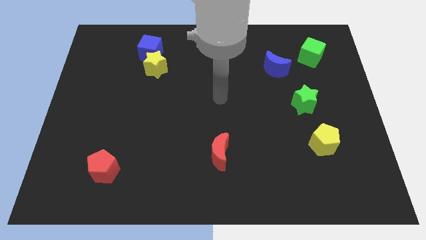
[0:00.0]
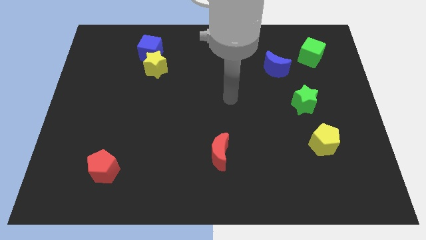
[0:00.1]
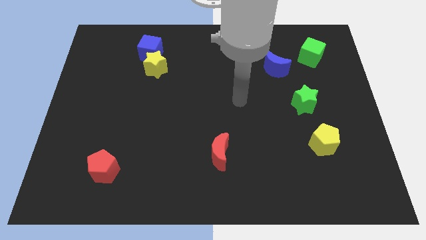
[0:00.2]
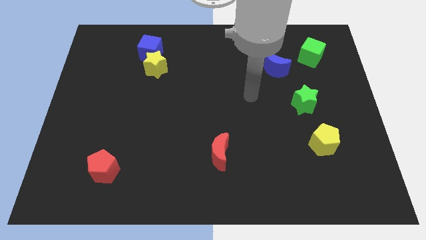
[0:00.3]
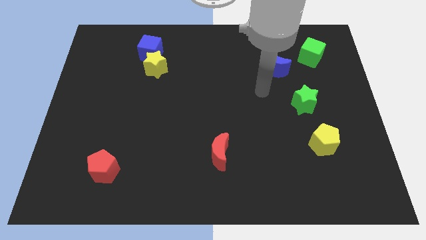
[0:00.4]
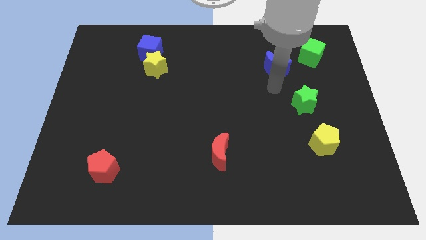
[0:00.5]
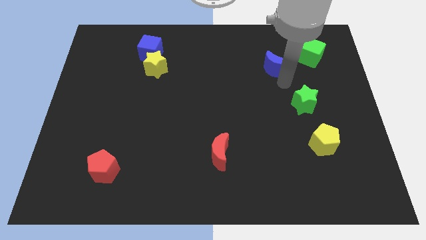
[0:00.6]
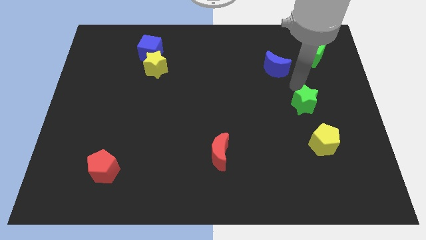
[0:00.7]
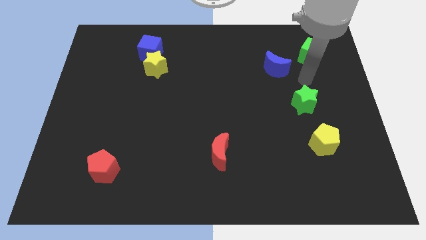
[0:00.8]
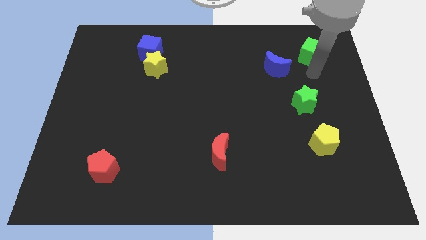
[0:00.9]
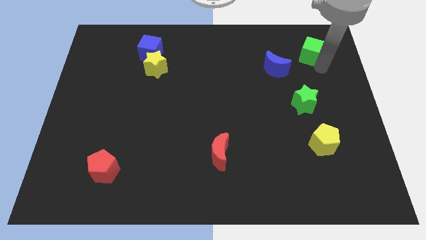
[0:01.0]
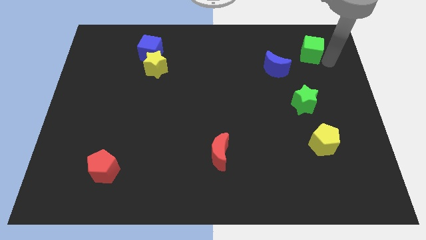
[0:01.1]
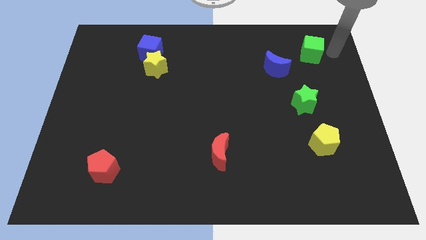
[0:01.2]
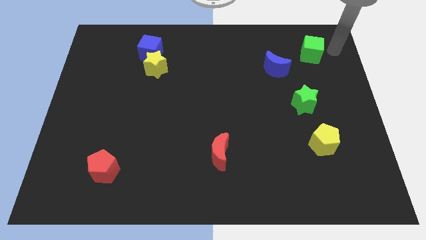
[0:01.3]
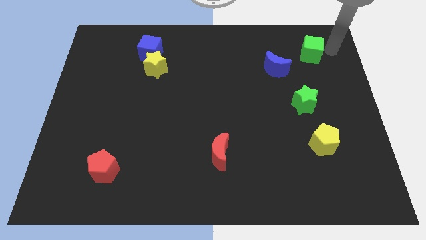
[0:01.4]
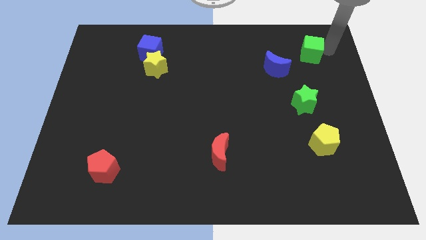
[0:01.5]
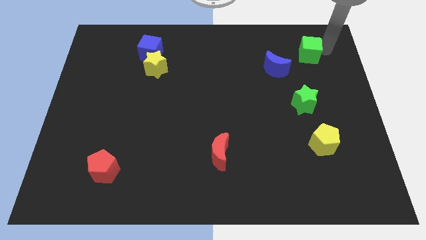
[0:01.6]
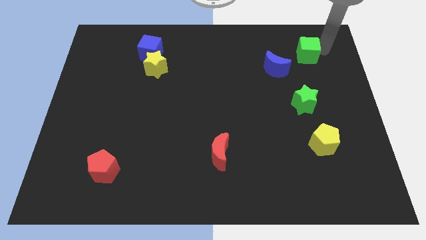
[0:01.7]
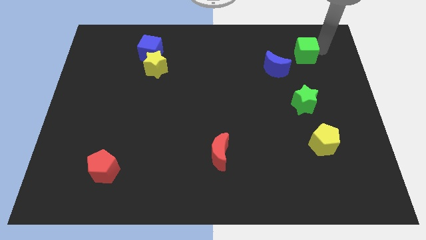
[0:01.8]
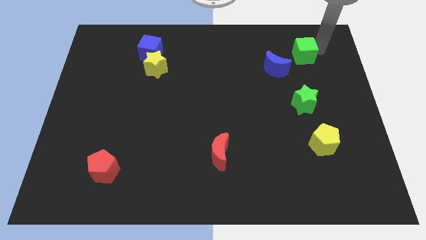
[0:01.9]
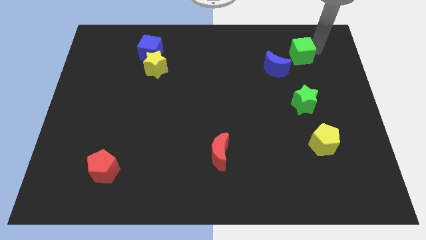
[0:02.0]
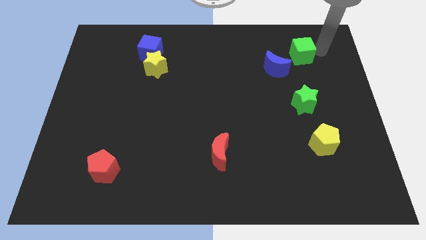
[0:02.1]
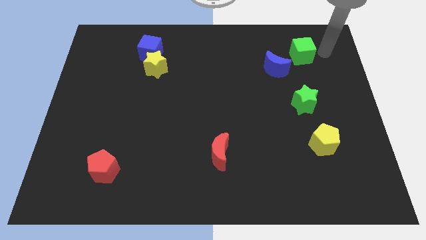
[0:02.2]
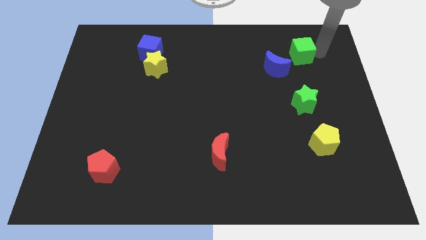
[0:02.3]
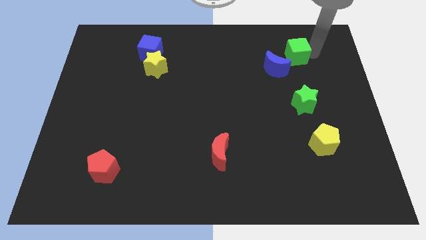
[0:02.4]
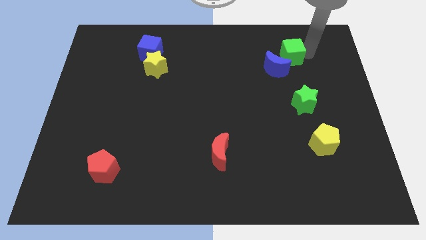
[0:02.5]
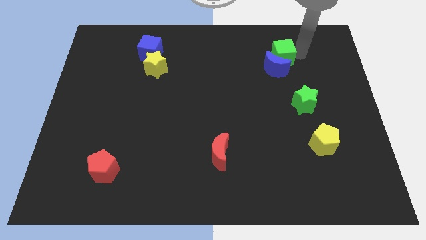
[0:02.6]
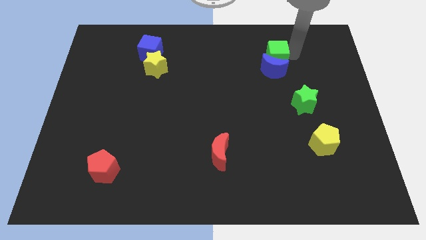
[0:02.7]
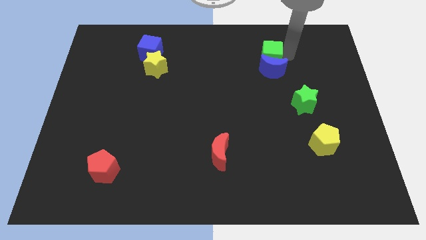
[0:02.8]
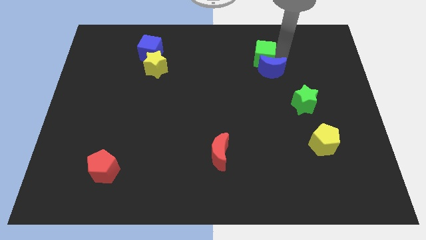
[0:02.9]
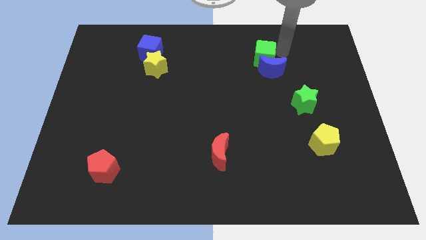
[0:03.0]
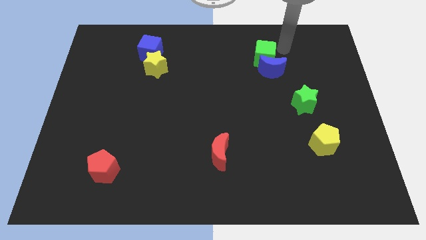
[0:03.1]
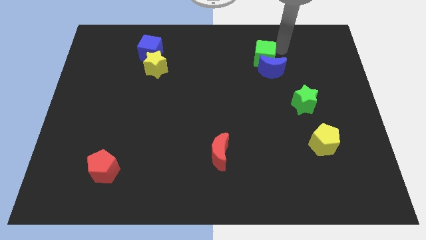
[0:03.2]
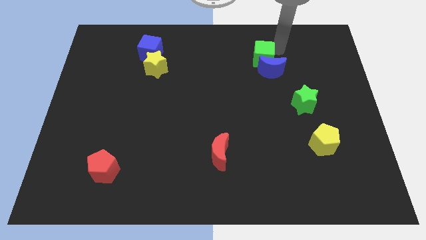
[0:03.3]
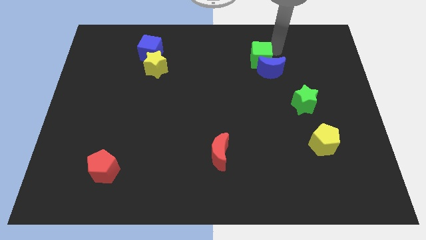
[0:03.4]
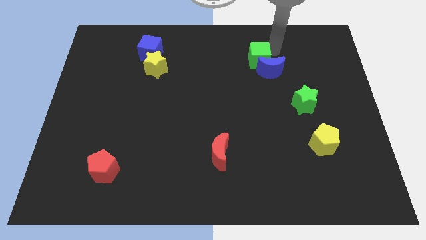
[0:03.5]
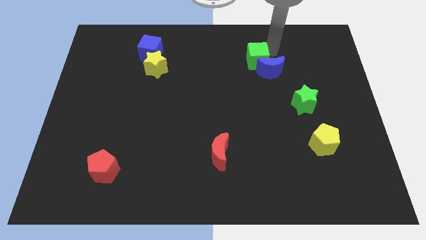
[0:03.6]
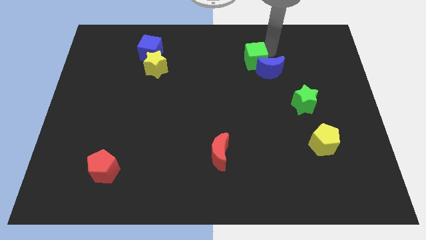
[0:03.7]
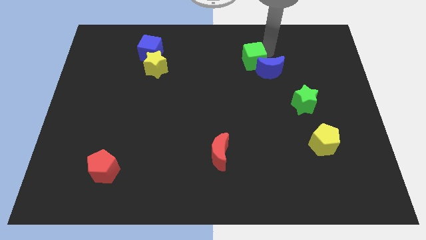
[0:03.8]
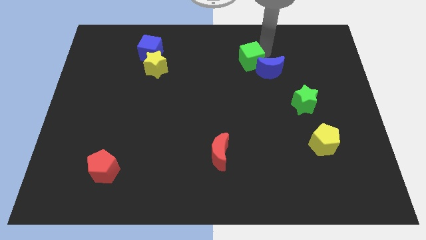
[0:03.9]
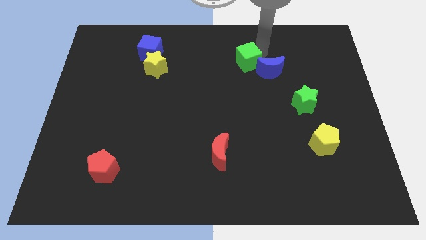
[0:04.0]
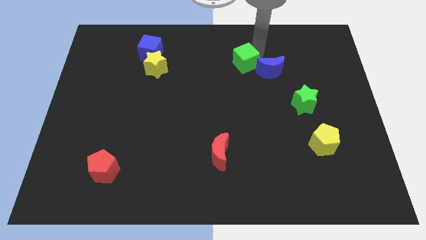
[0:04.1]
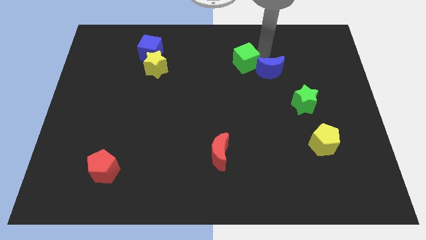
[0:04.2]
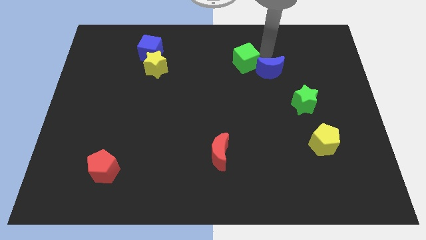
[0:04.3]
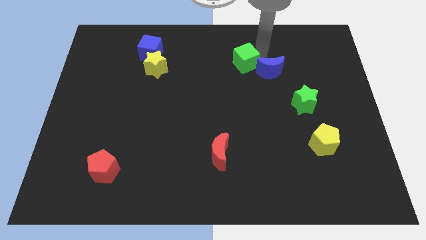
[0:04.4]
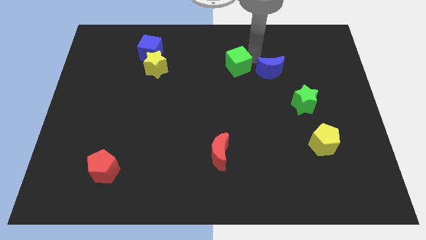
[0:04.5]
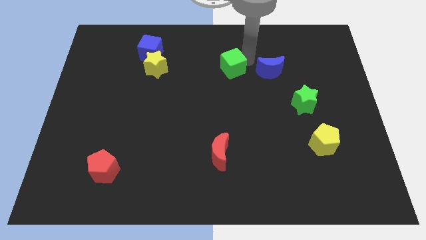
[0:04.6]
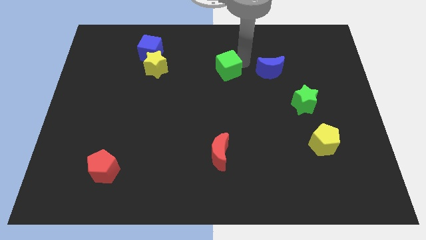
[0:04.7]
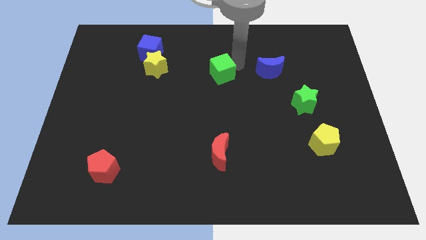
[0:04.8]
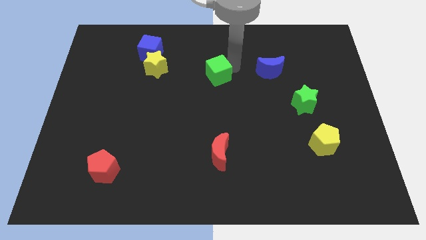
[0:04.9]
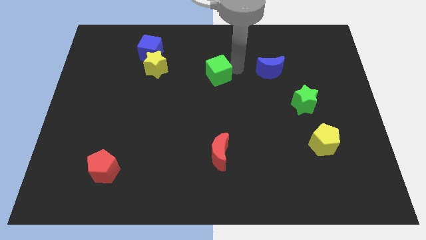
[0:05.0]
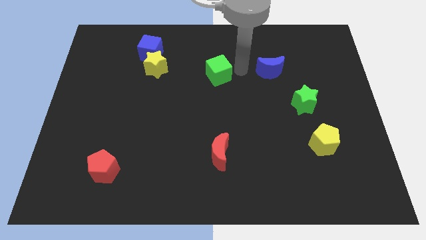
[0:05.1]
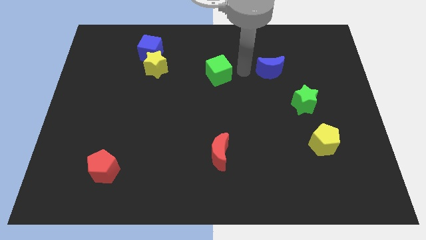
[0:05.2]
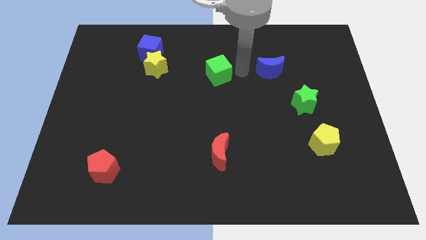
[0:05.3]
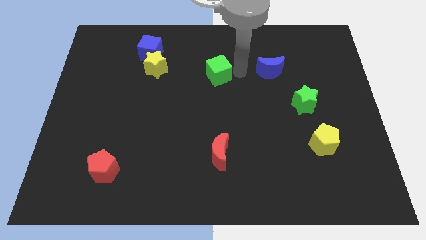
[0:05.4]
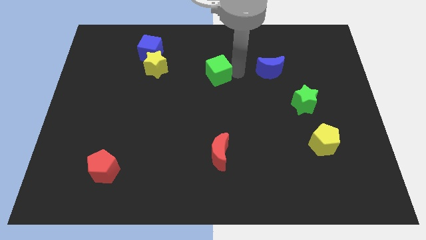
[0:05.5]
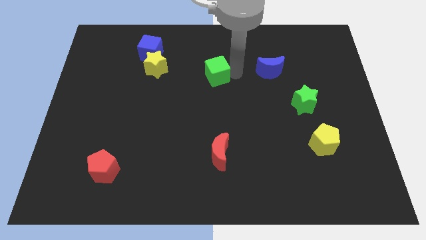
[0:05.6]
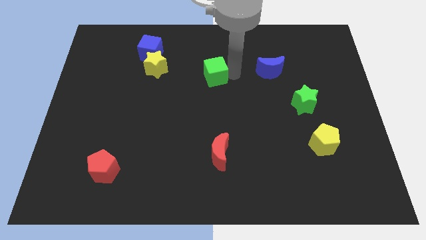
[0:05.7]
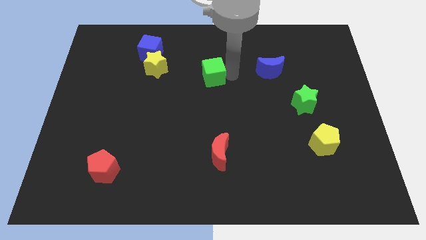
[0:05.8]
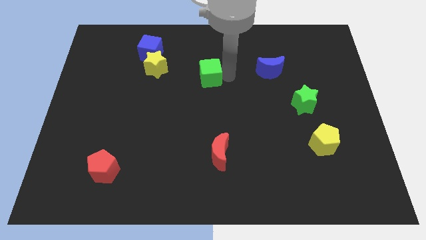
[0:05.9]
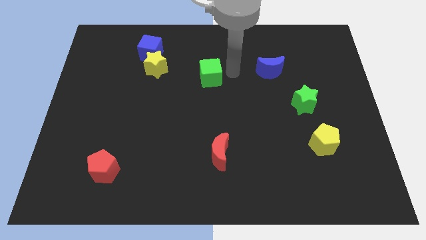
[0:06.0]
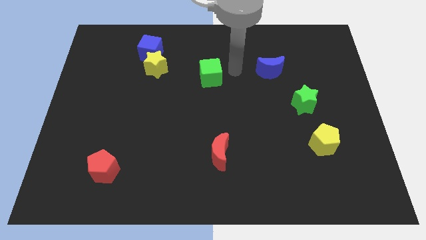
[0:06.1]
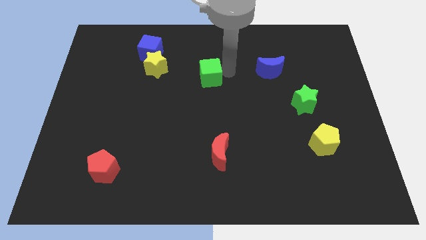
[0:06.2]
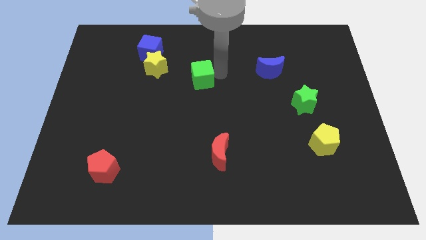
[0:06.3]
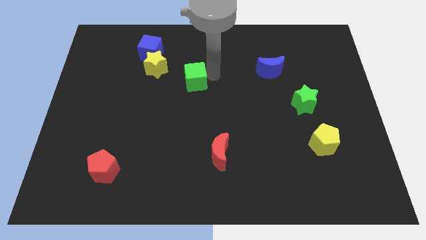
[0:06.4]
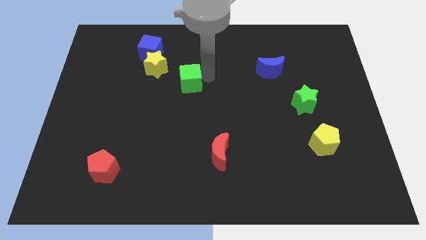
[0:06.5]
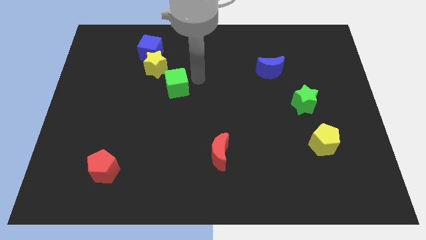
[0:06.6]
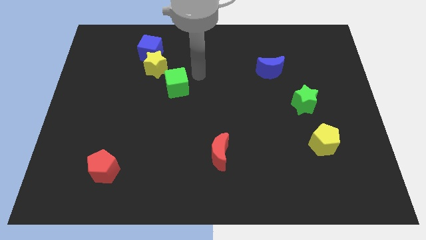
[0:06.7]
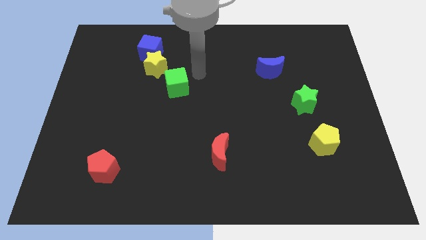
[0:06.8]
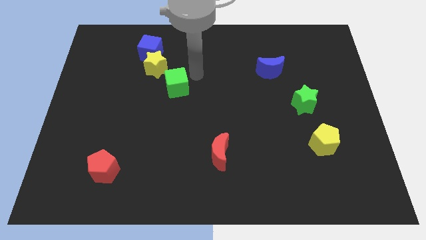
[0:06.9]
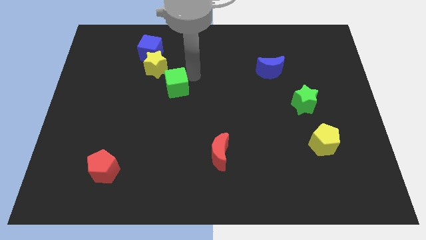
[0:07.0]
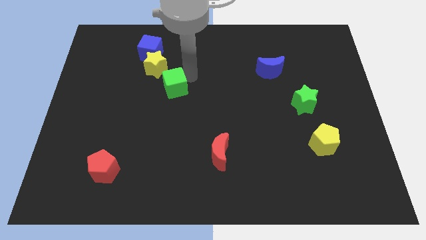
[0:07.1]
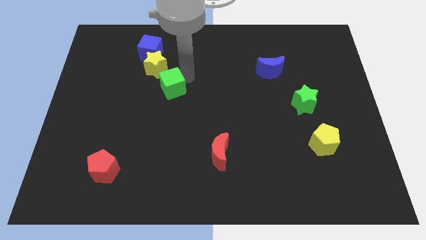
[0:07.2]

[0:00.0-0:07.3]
slide the green cube to the bottom side of the yellow star
